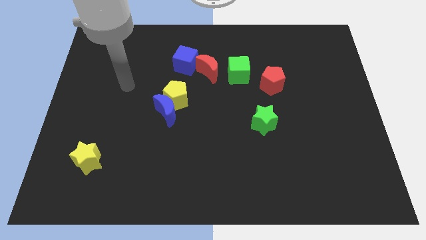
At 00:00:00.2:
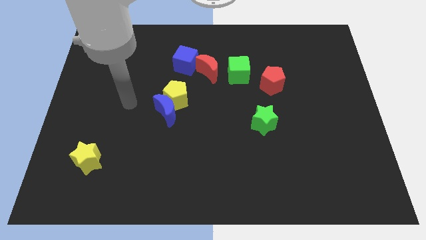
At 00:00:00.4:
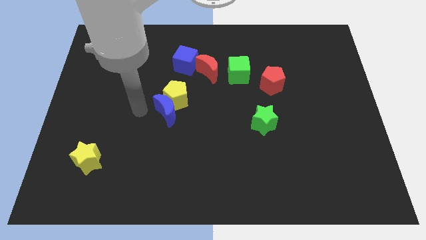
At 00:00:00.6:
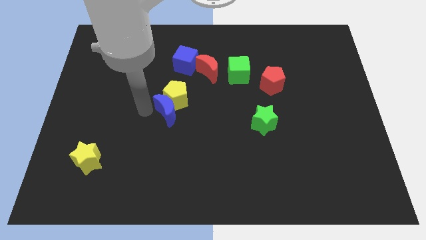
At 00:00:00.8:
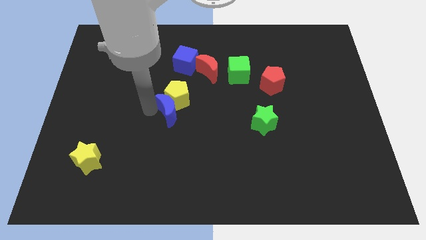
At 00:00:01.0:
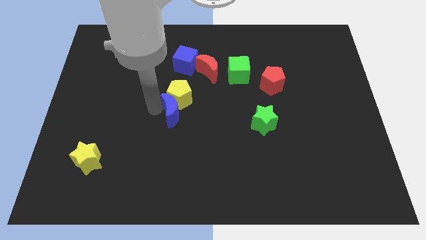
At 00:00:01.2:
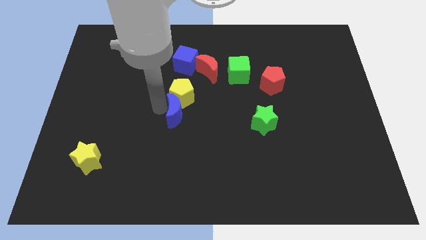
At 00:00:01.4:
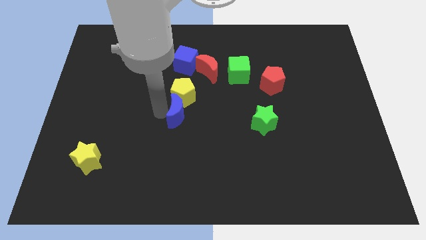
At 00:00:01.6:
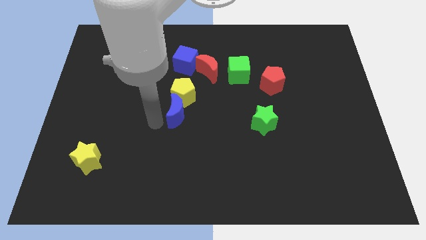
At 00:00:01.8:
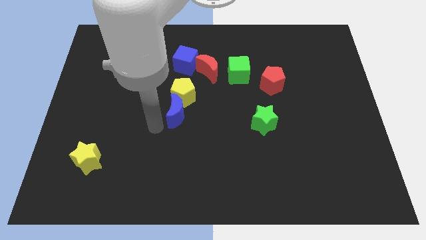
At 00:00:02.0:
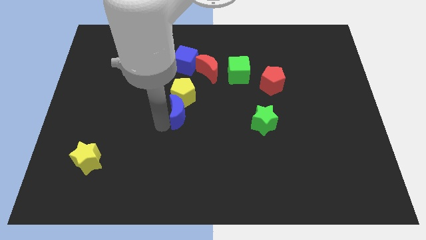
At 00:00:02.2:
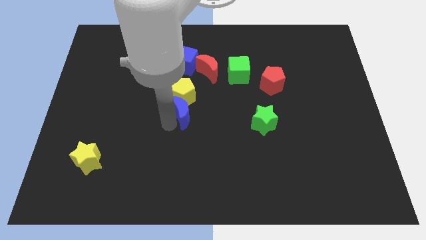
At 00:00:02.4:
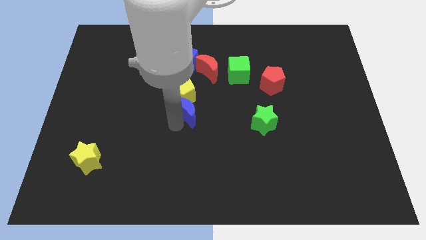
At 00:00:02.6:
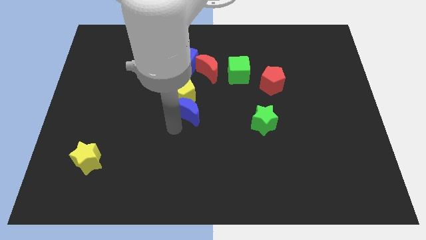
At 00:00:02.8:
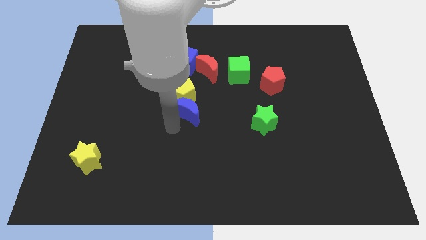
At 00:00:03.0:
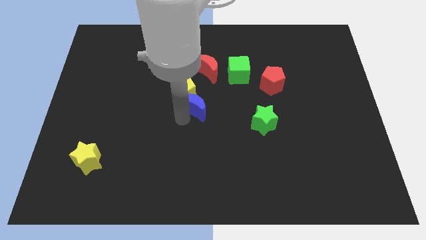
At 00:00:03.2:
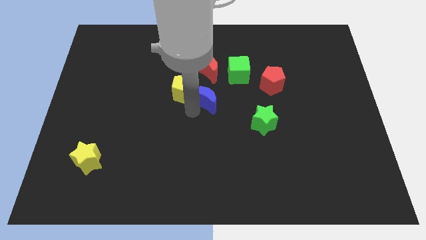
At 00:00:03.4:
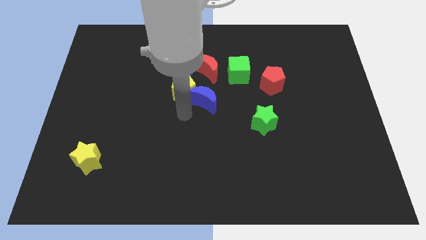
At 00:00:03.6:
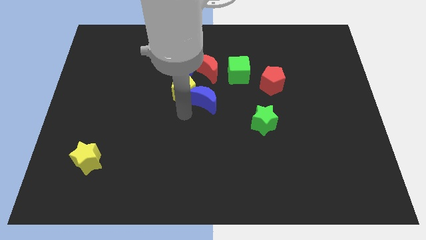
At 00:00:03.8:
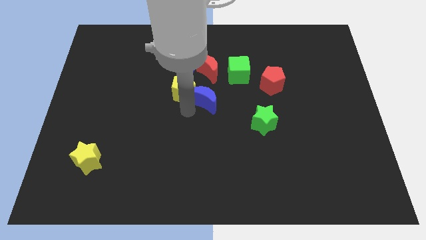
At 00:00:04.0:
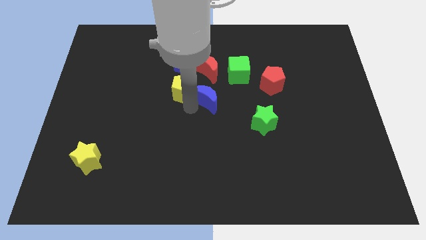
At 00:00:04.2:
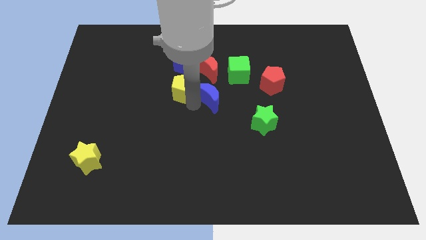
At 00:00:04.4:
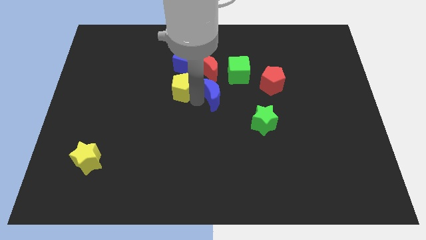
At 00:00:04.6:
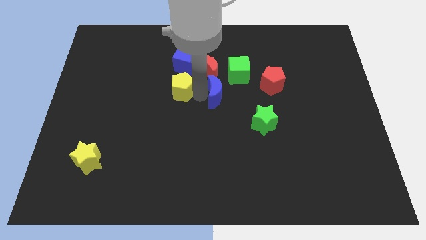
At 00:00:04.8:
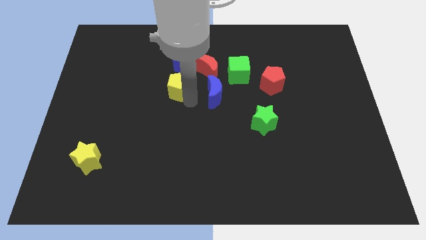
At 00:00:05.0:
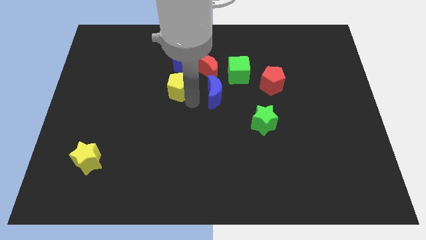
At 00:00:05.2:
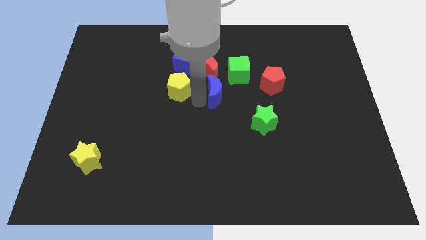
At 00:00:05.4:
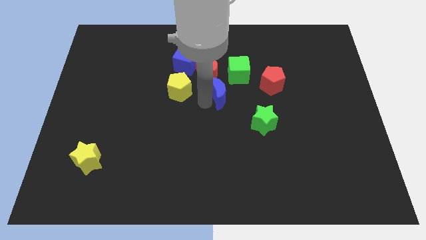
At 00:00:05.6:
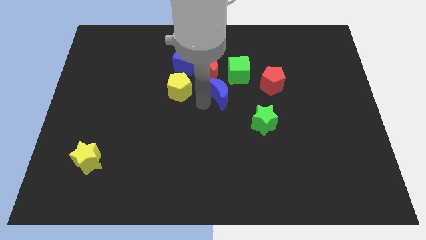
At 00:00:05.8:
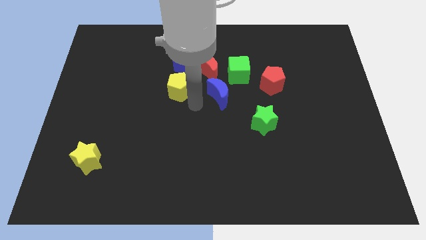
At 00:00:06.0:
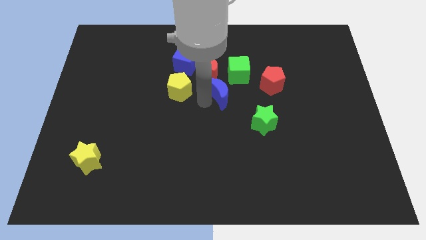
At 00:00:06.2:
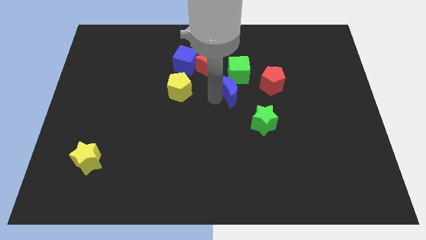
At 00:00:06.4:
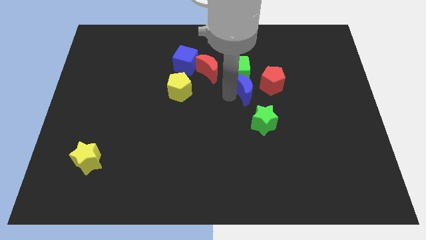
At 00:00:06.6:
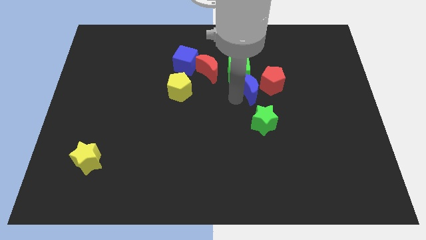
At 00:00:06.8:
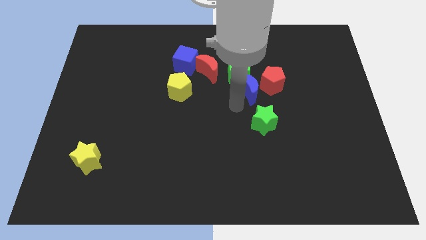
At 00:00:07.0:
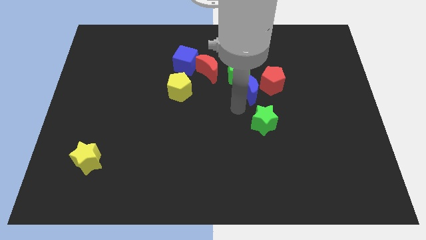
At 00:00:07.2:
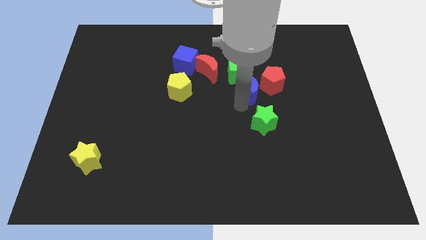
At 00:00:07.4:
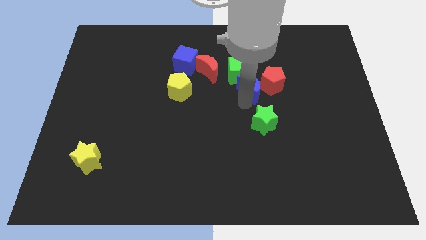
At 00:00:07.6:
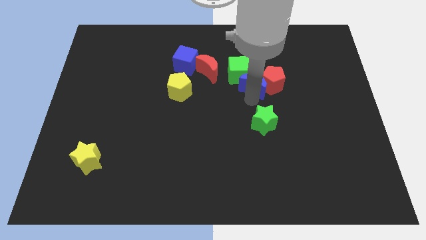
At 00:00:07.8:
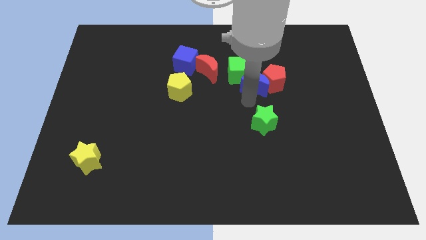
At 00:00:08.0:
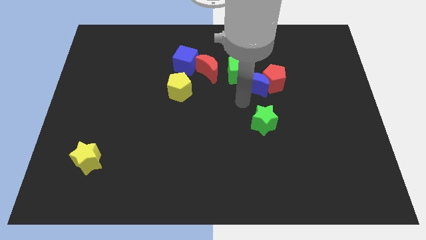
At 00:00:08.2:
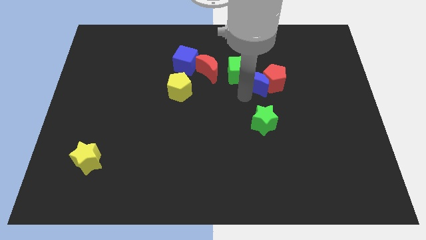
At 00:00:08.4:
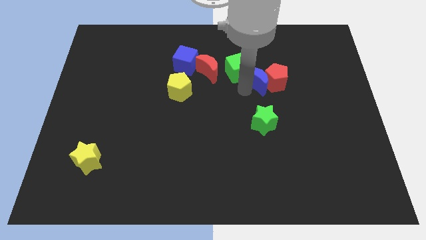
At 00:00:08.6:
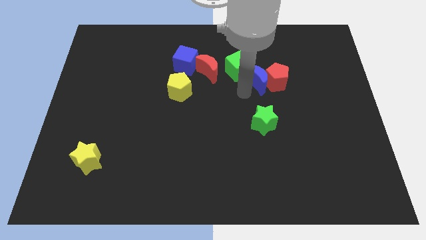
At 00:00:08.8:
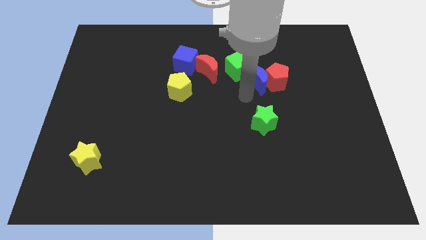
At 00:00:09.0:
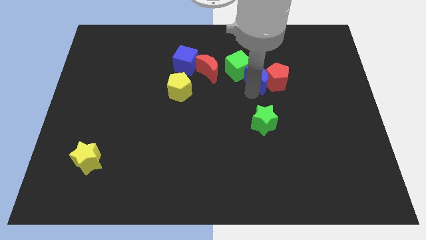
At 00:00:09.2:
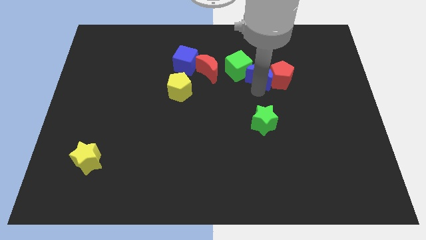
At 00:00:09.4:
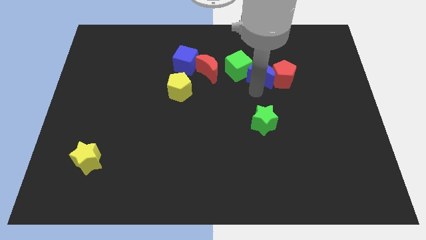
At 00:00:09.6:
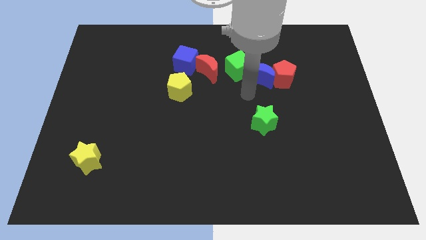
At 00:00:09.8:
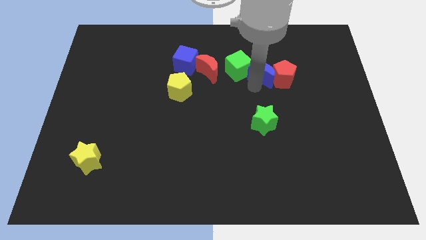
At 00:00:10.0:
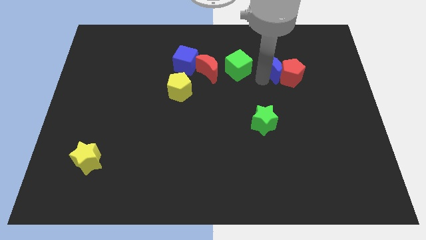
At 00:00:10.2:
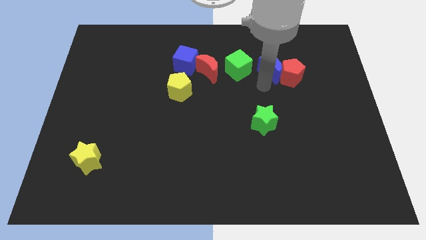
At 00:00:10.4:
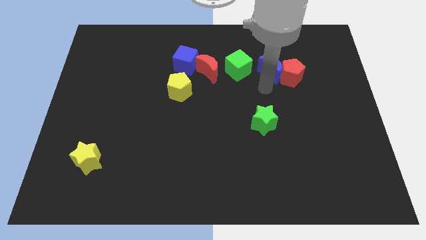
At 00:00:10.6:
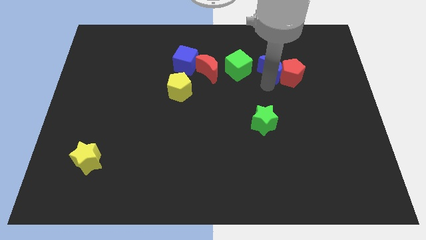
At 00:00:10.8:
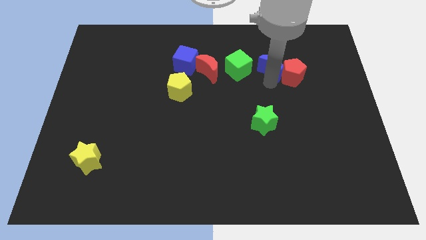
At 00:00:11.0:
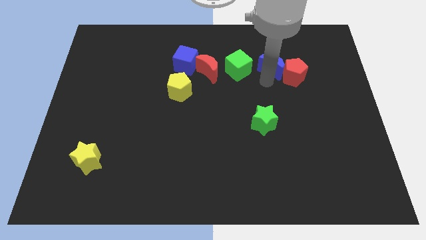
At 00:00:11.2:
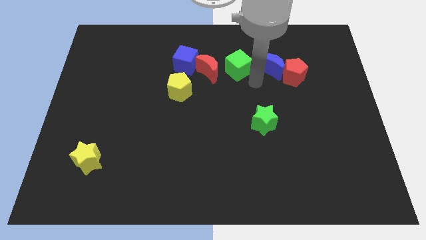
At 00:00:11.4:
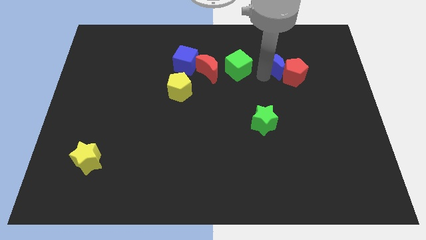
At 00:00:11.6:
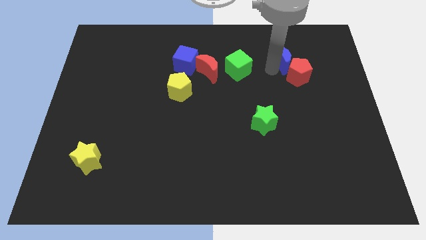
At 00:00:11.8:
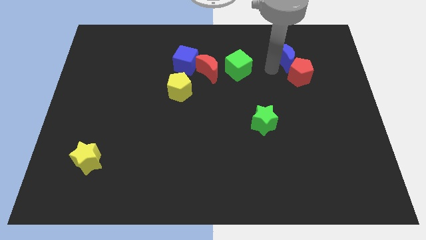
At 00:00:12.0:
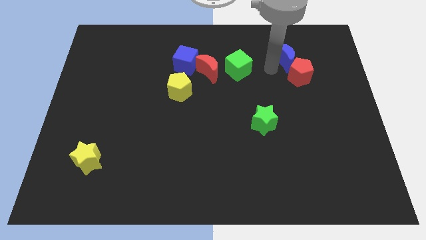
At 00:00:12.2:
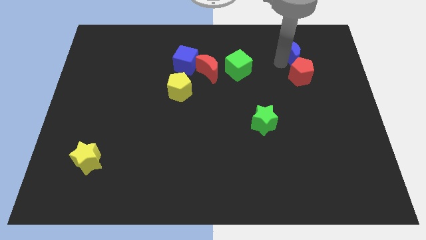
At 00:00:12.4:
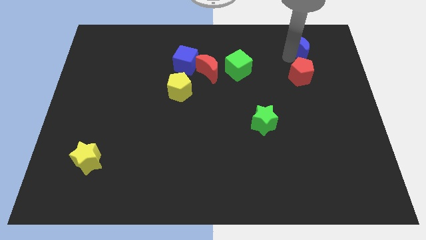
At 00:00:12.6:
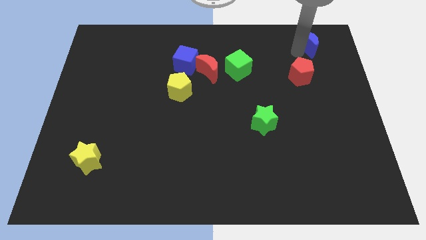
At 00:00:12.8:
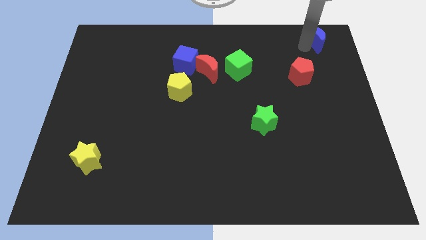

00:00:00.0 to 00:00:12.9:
push the blue moon to the top right
